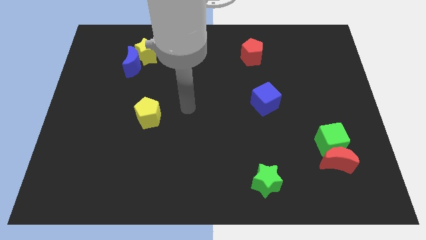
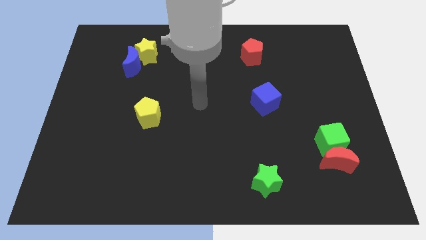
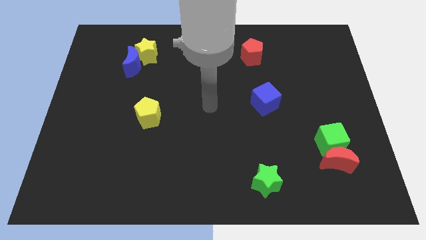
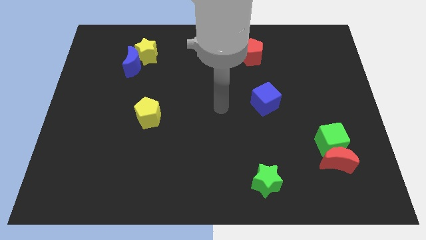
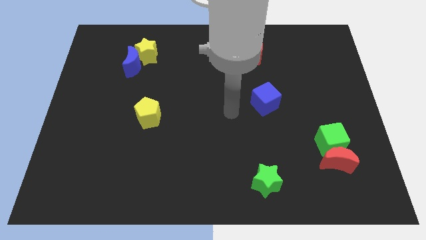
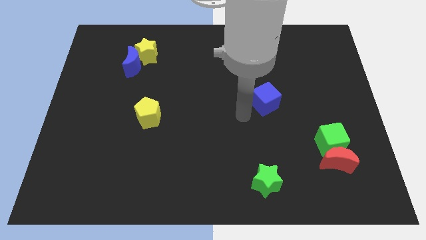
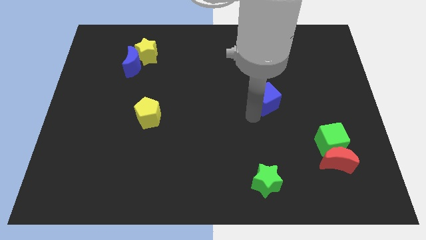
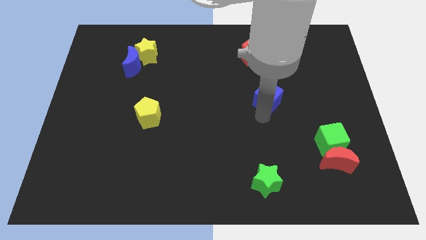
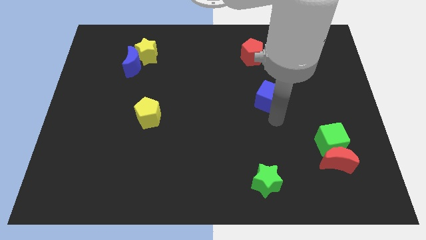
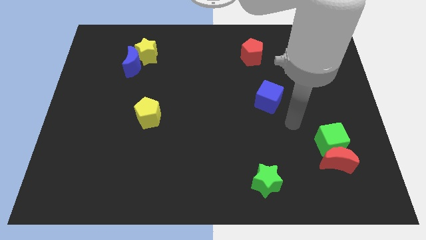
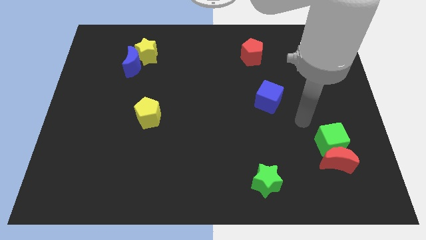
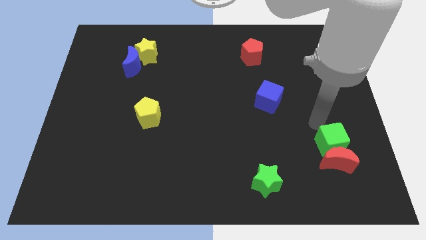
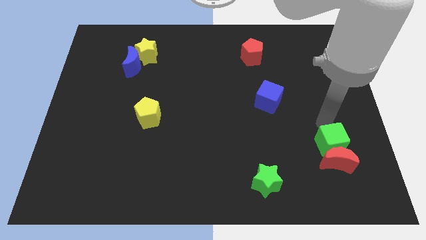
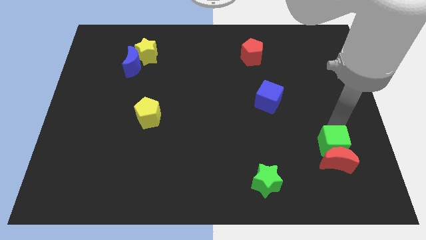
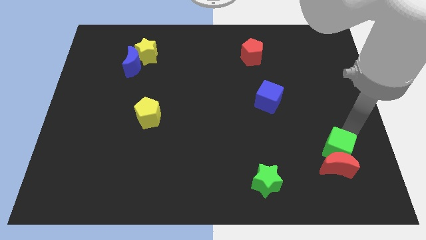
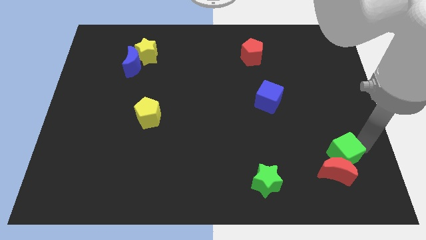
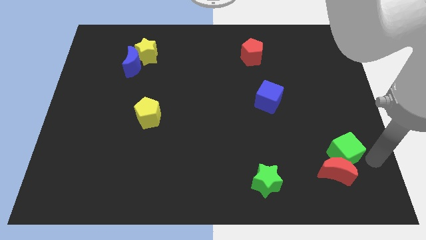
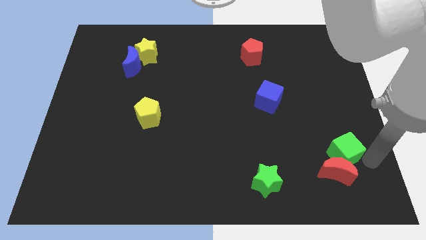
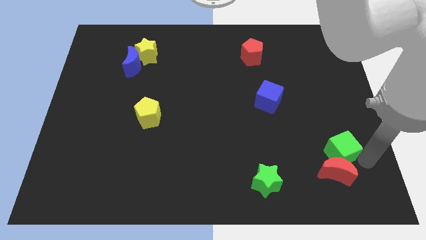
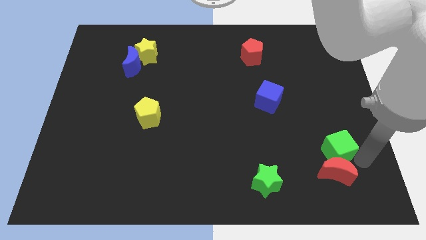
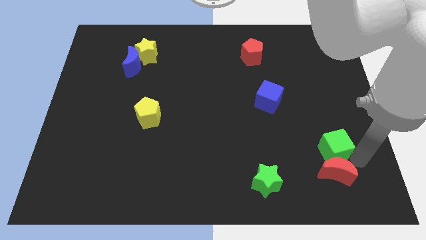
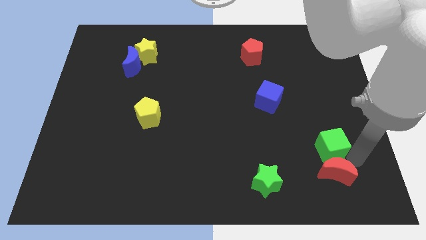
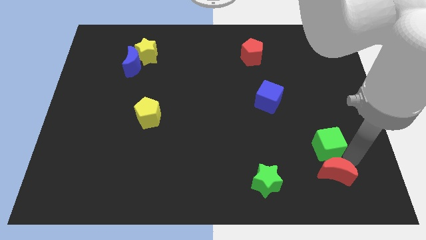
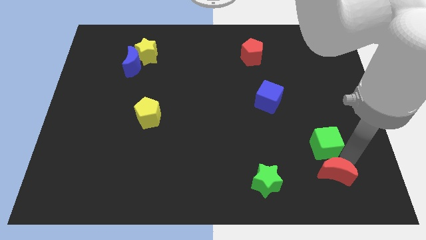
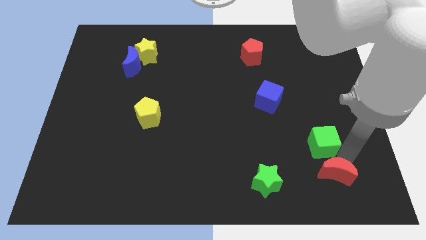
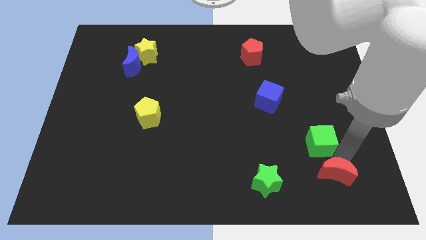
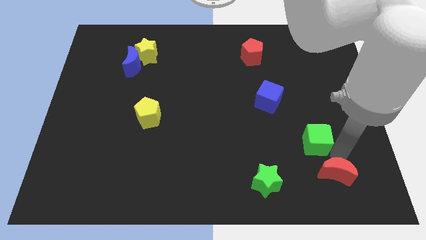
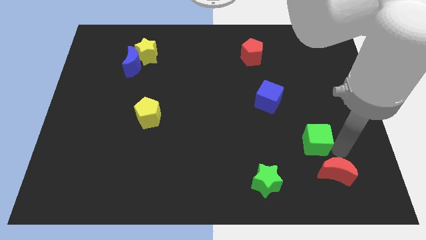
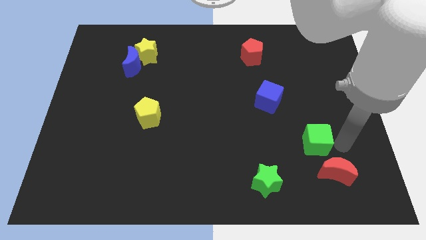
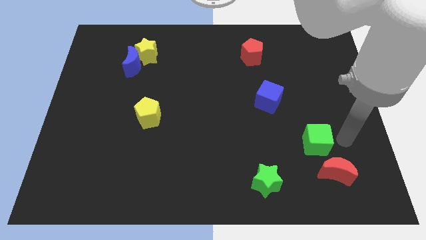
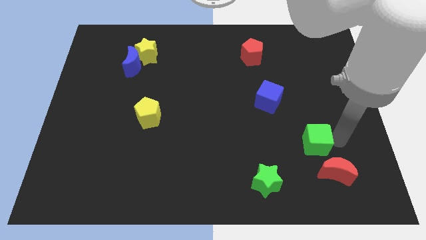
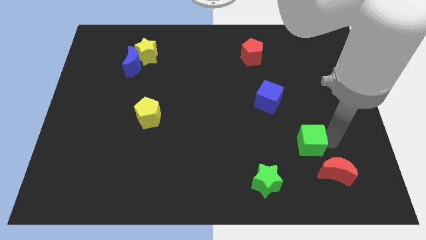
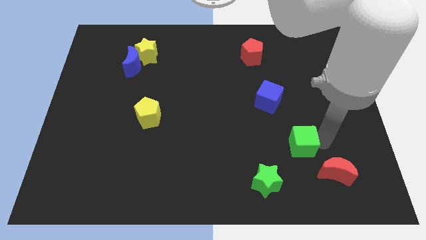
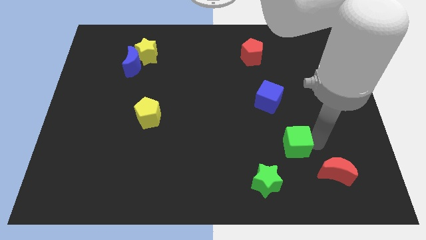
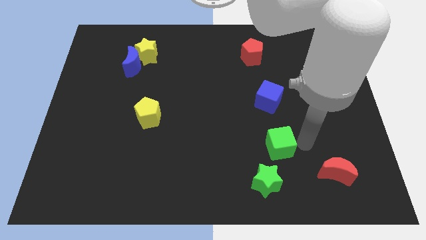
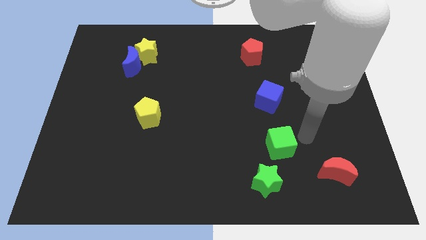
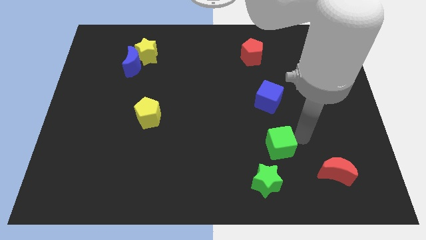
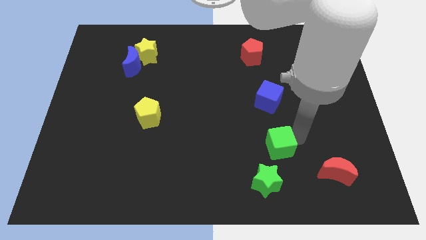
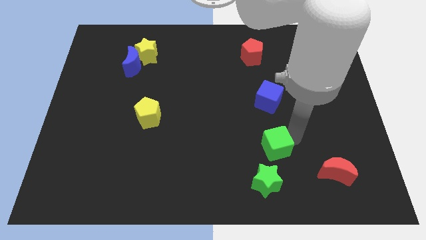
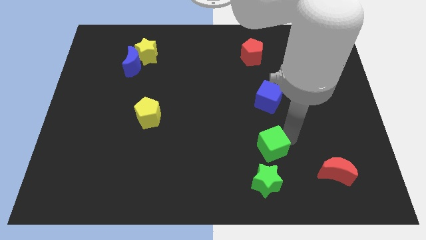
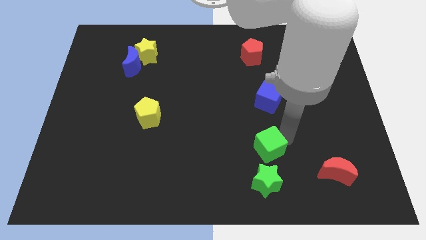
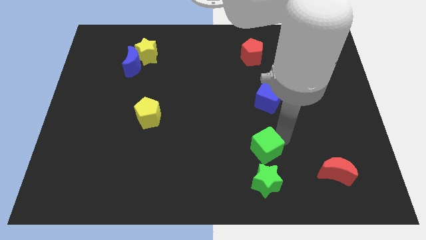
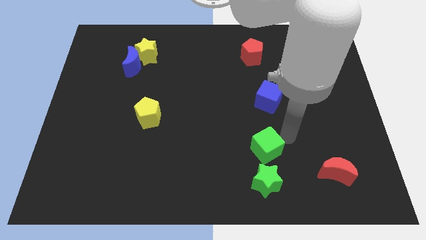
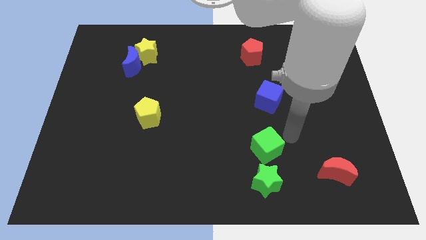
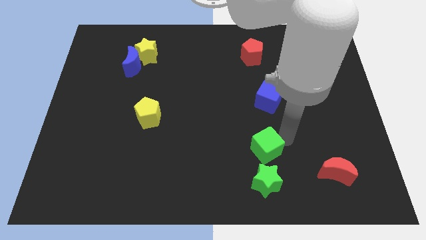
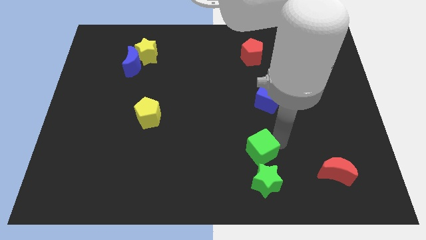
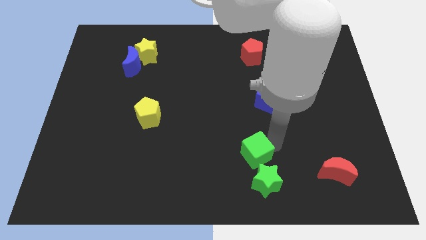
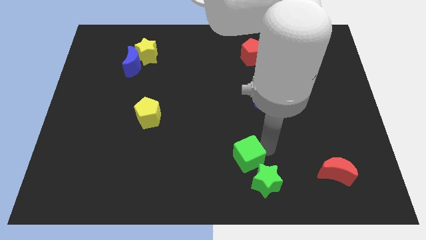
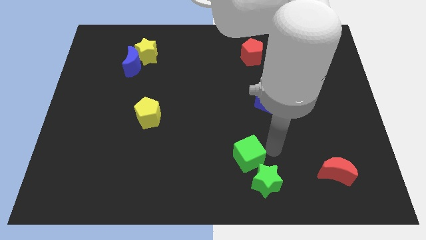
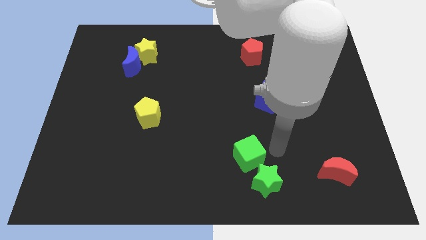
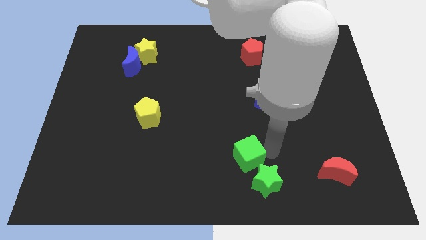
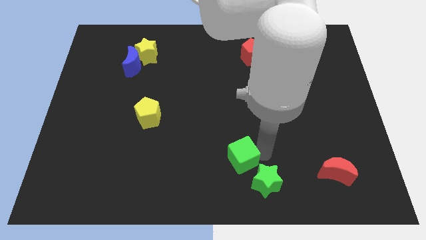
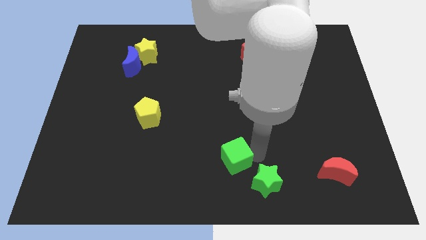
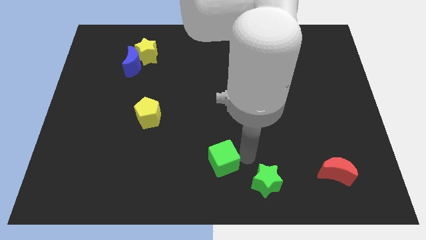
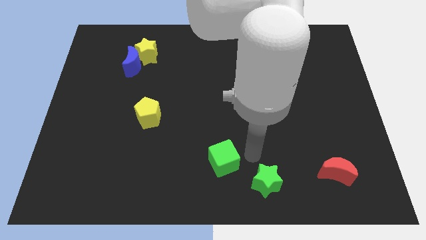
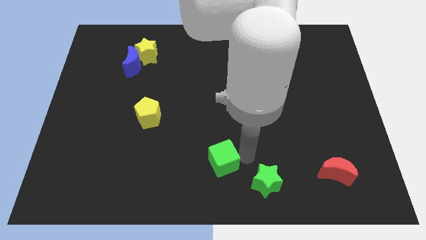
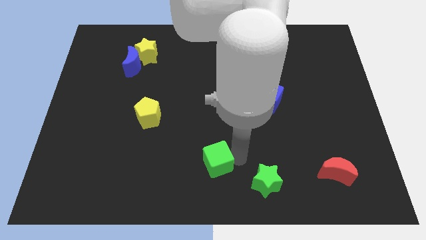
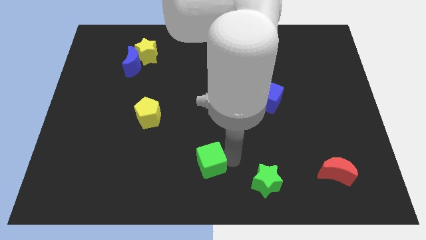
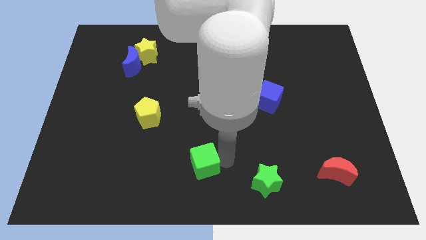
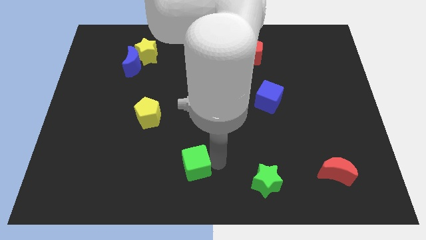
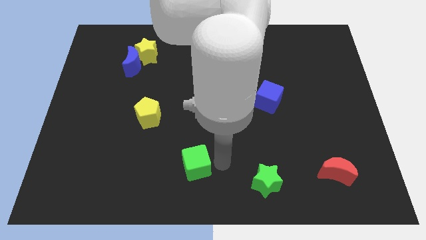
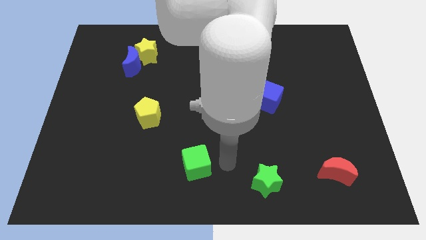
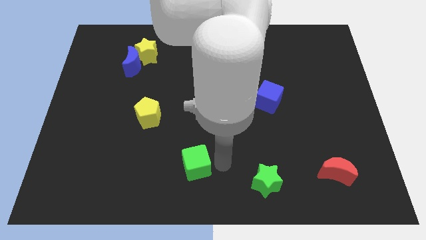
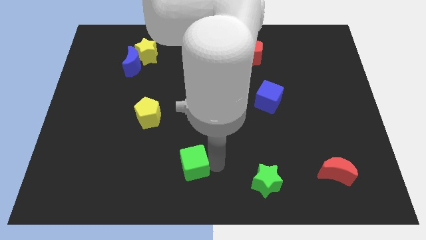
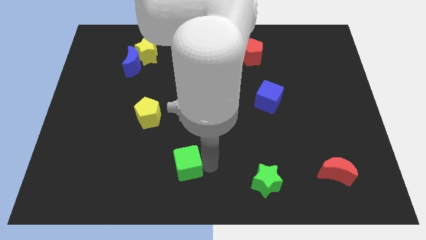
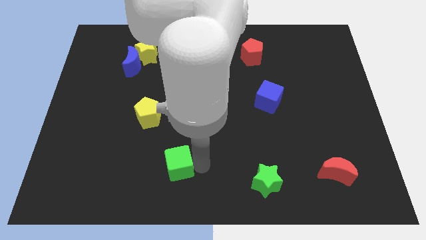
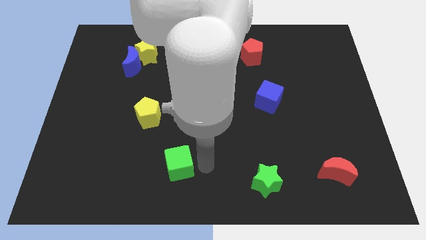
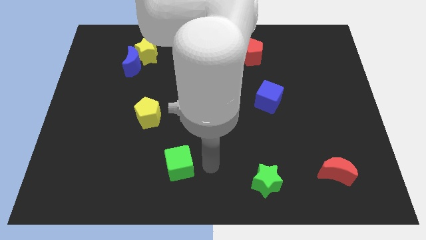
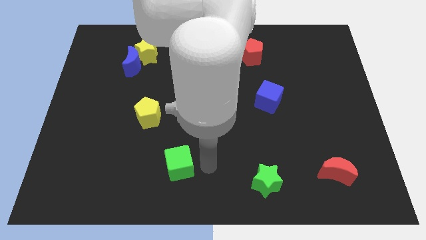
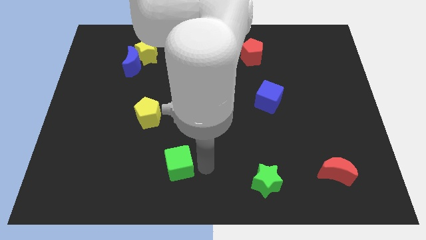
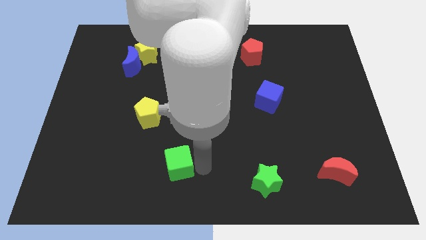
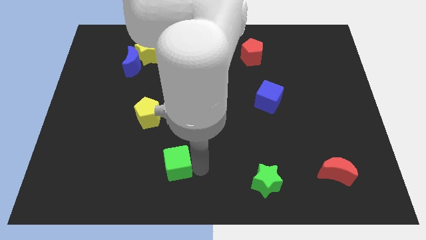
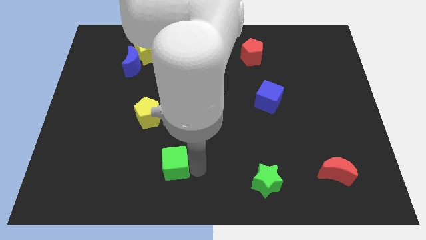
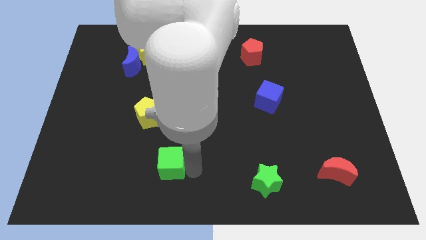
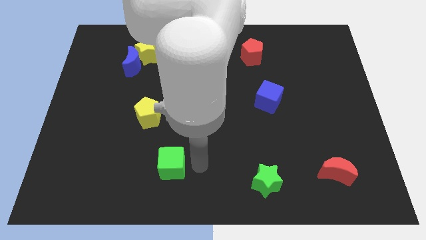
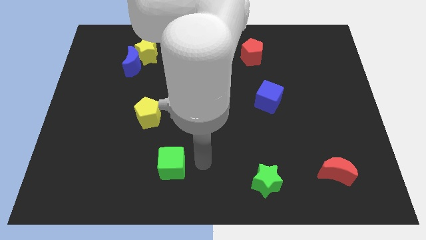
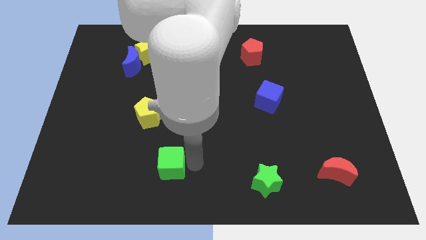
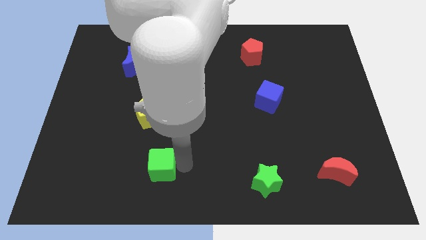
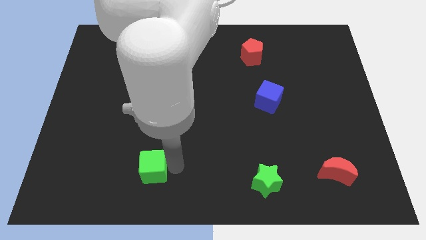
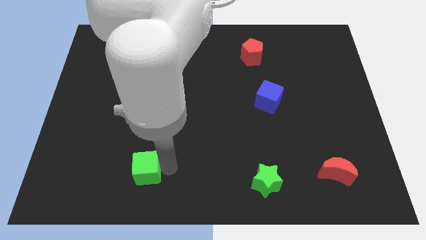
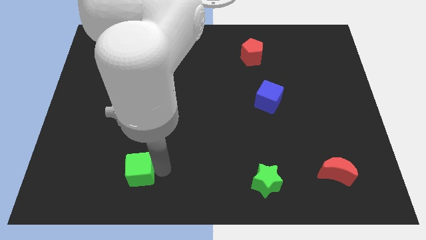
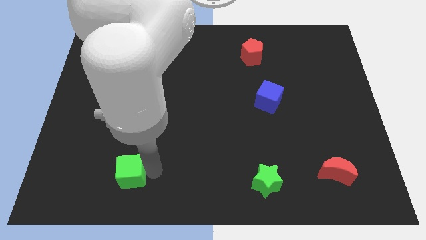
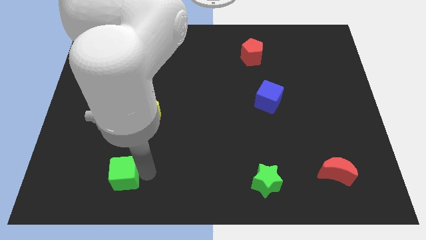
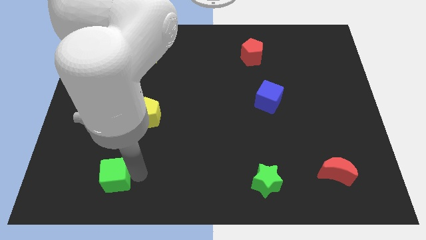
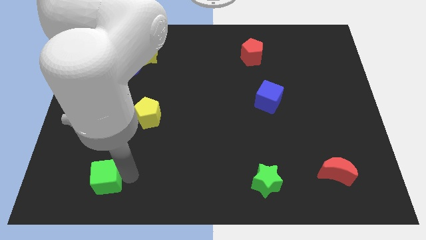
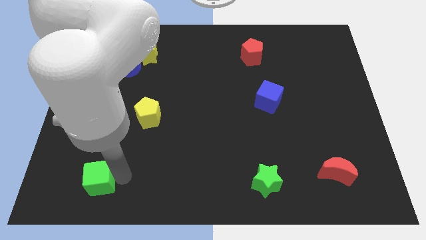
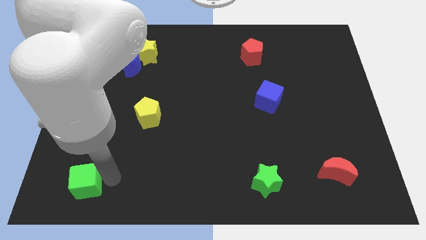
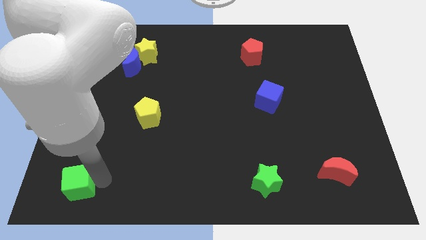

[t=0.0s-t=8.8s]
put the green cube to the bottom left of the board
